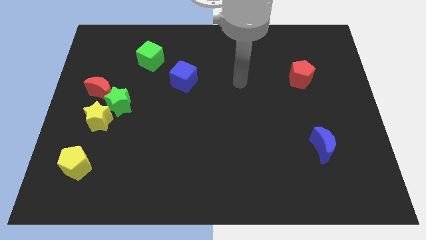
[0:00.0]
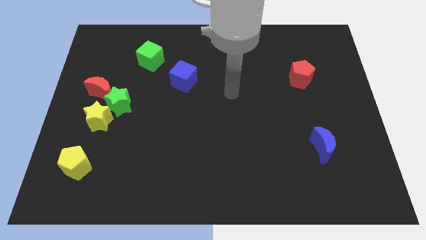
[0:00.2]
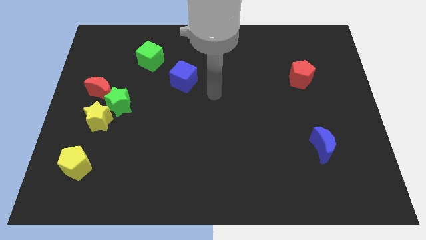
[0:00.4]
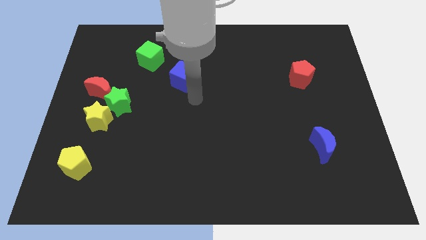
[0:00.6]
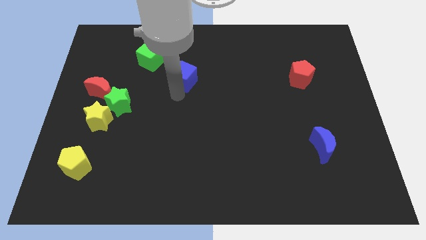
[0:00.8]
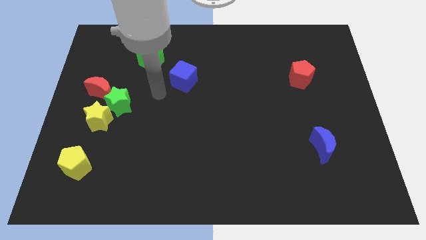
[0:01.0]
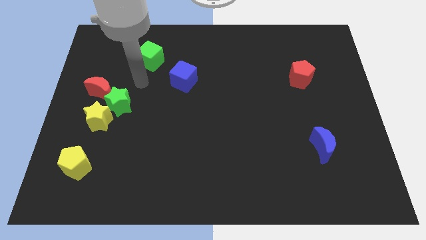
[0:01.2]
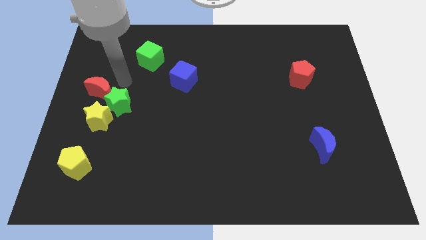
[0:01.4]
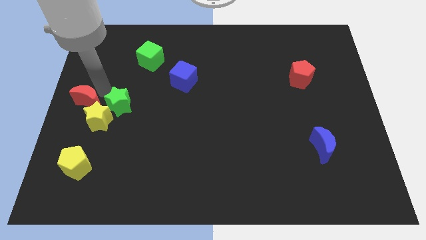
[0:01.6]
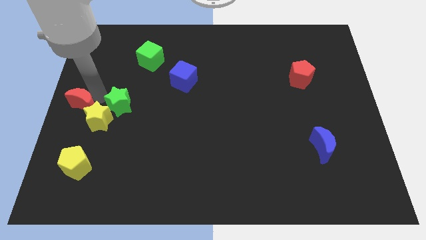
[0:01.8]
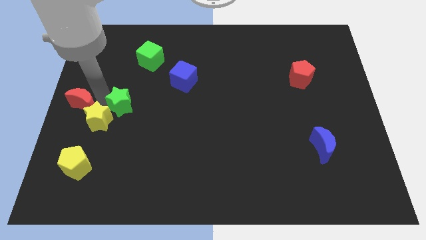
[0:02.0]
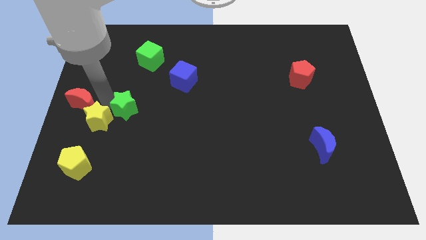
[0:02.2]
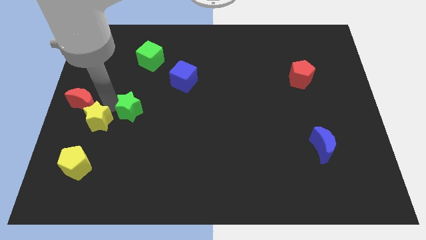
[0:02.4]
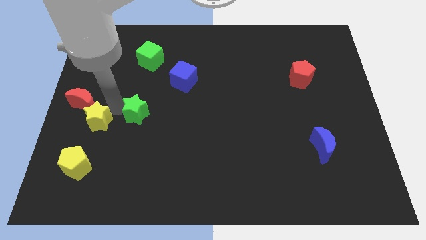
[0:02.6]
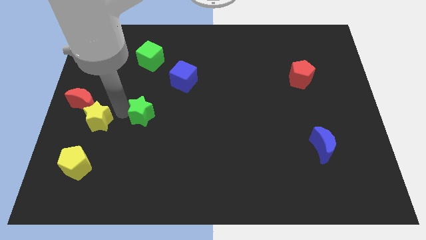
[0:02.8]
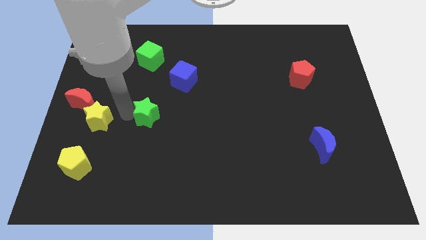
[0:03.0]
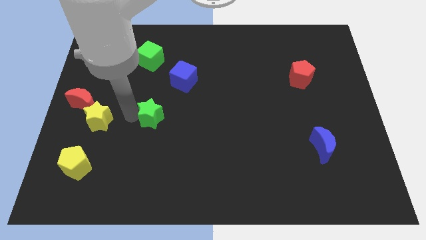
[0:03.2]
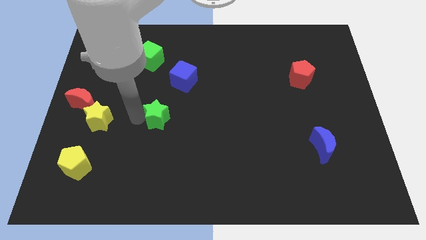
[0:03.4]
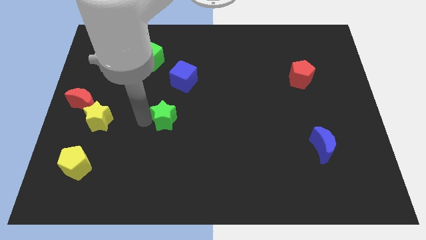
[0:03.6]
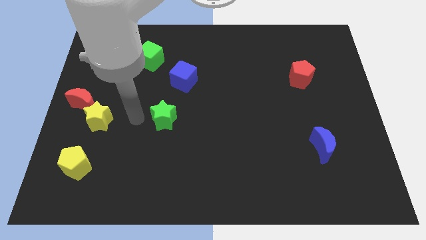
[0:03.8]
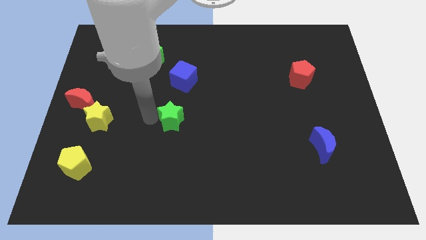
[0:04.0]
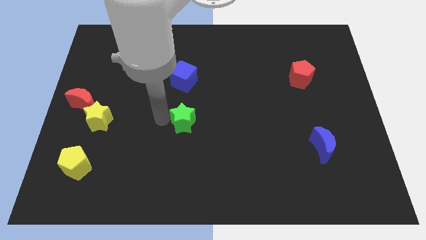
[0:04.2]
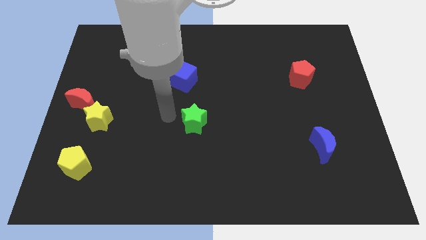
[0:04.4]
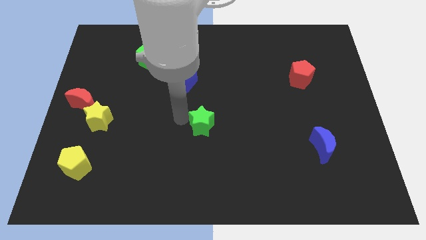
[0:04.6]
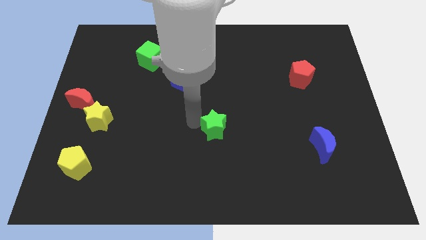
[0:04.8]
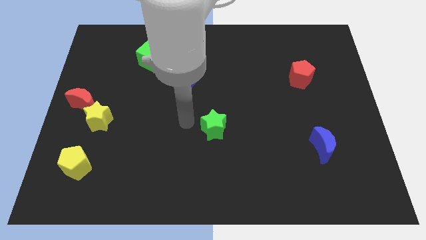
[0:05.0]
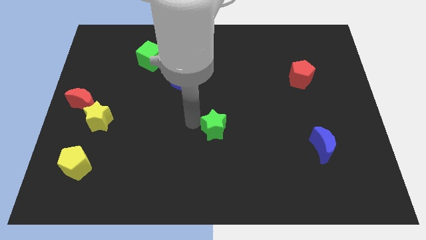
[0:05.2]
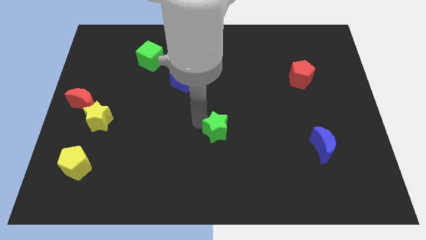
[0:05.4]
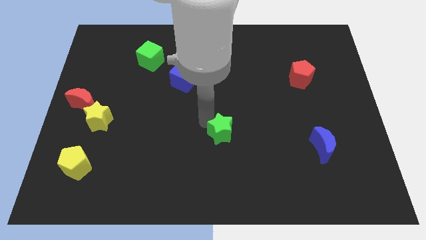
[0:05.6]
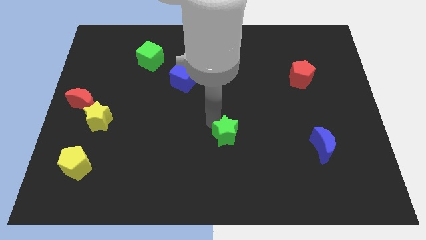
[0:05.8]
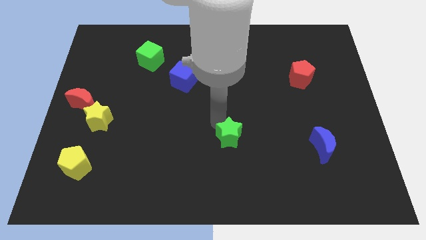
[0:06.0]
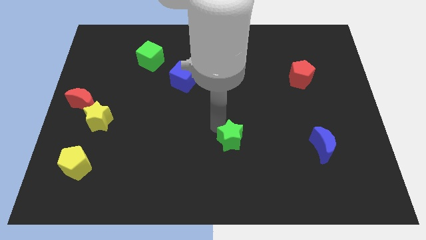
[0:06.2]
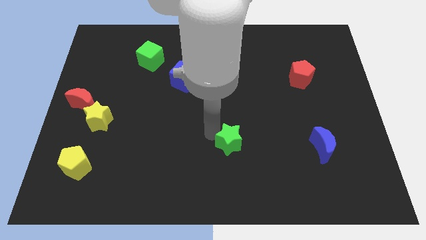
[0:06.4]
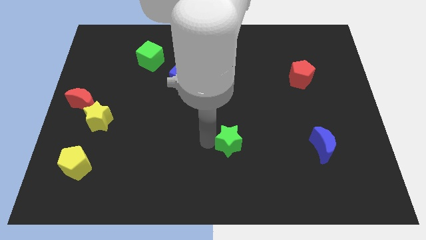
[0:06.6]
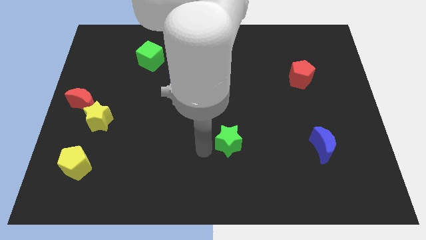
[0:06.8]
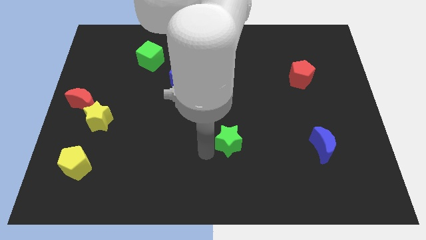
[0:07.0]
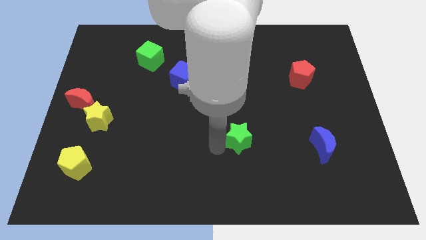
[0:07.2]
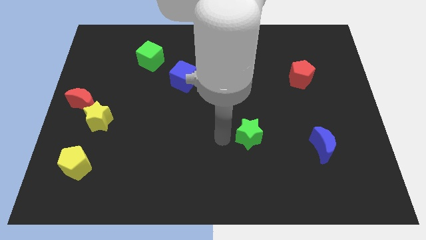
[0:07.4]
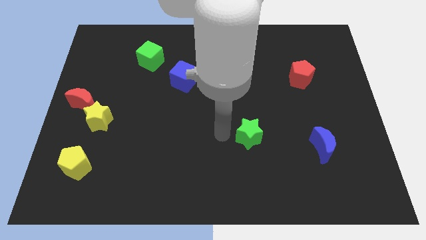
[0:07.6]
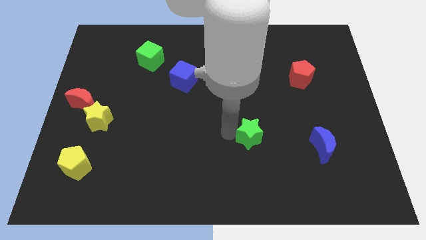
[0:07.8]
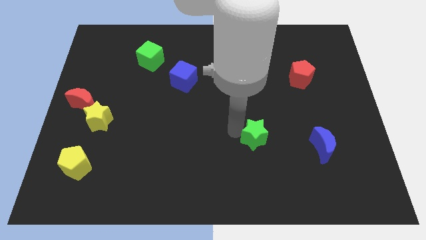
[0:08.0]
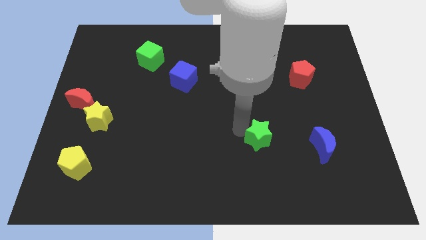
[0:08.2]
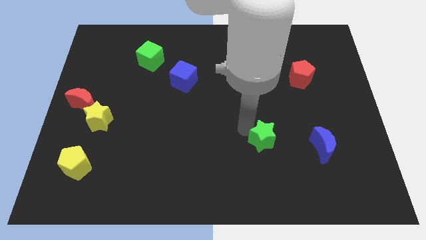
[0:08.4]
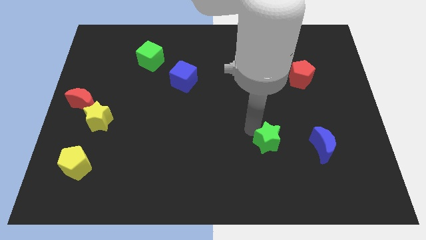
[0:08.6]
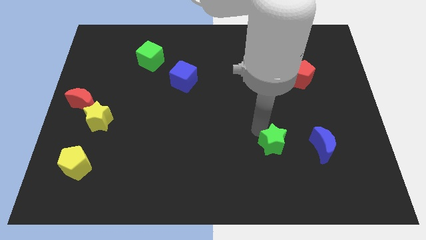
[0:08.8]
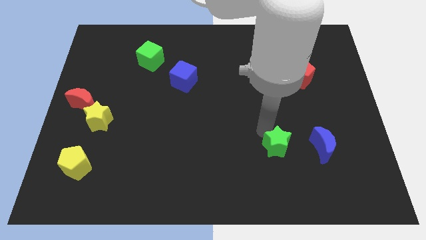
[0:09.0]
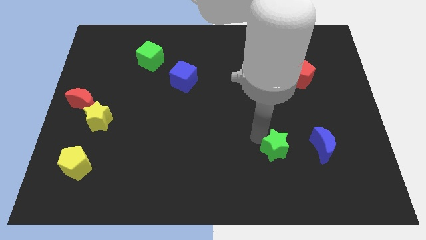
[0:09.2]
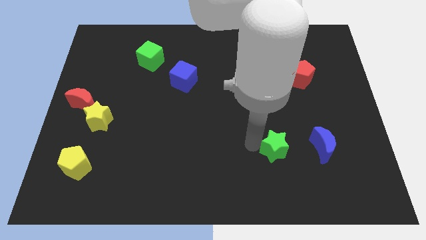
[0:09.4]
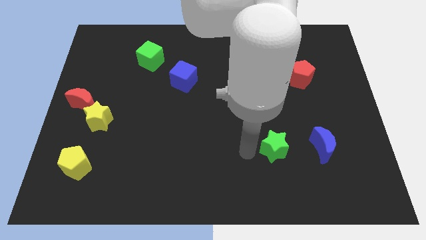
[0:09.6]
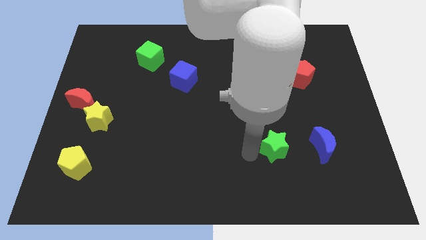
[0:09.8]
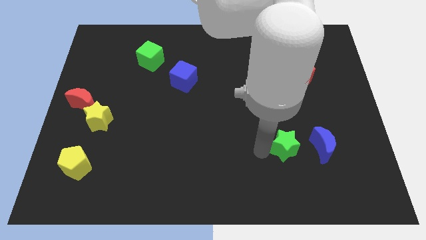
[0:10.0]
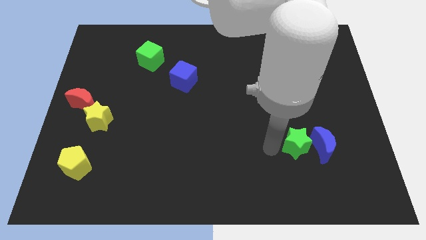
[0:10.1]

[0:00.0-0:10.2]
slide the green star to the blue moon

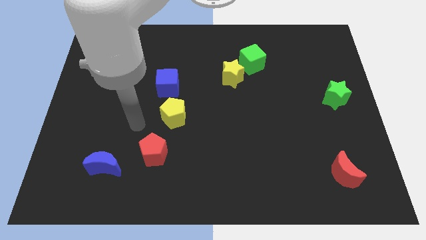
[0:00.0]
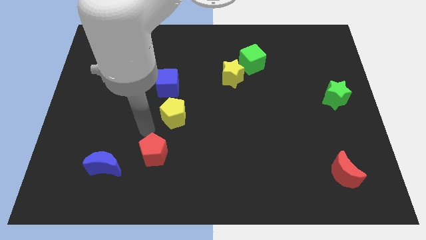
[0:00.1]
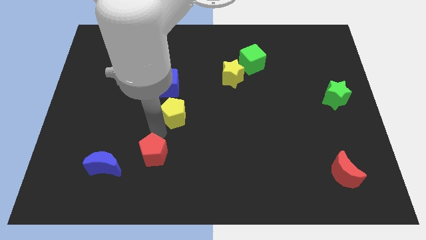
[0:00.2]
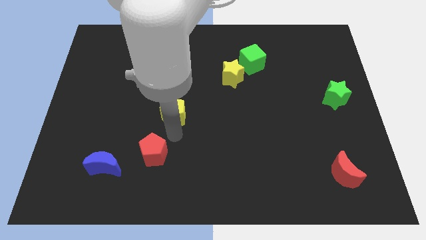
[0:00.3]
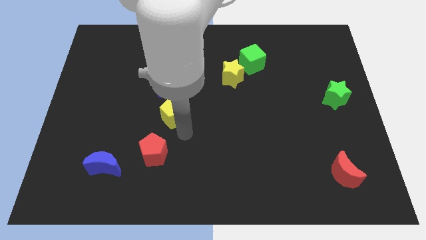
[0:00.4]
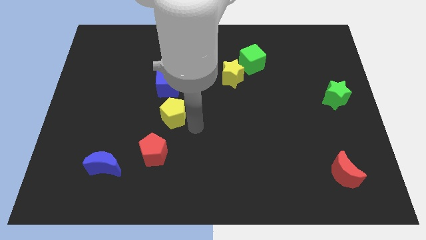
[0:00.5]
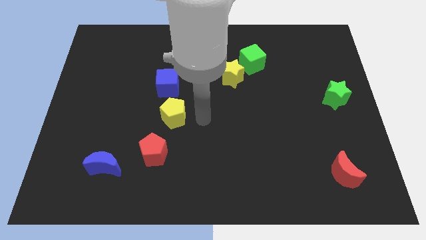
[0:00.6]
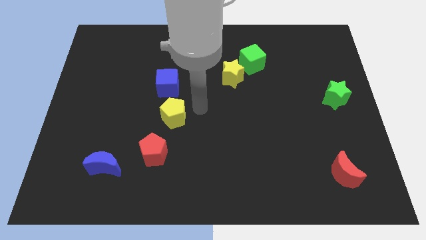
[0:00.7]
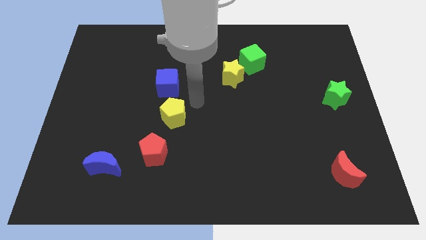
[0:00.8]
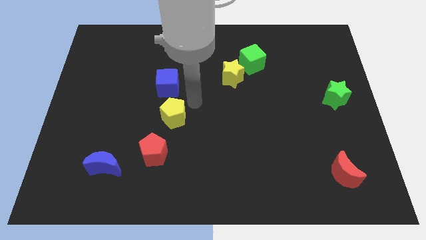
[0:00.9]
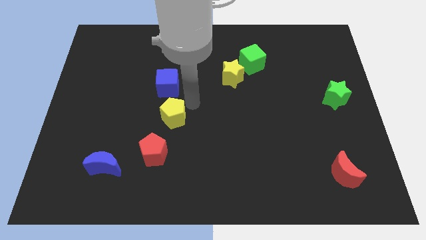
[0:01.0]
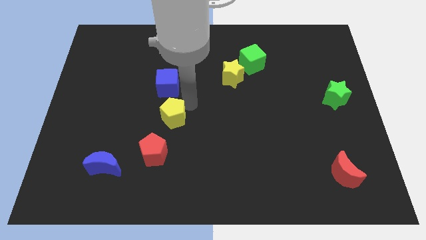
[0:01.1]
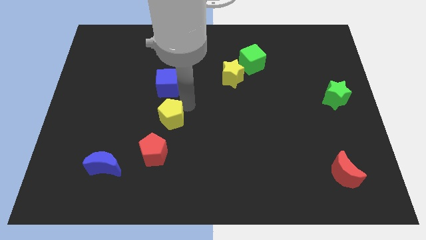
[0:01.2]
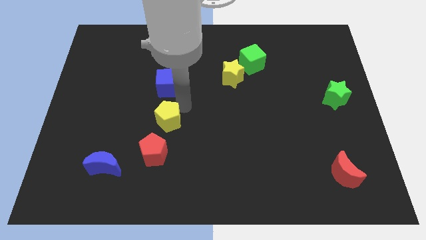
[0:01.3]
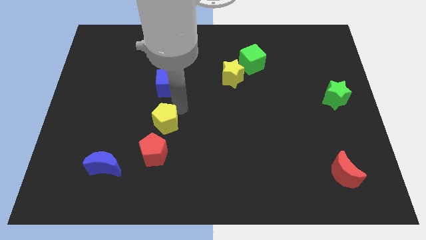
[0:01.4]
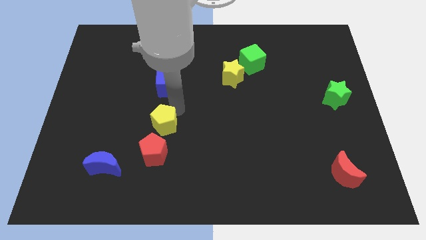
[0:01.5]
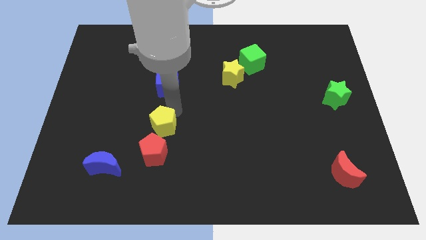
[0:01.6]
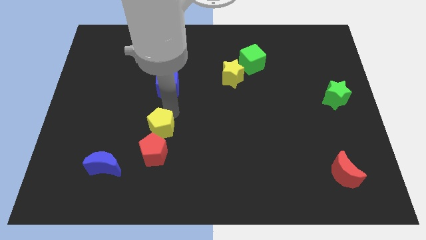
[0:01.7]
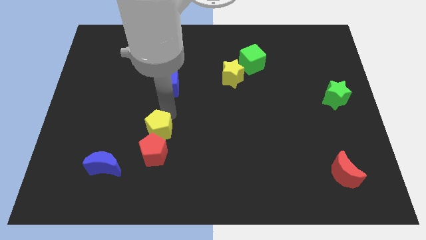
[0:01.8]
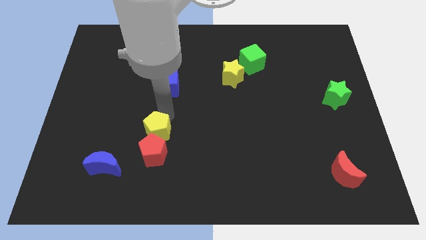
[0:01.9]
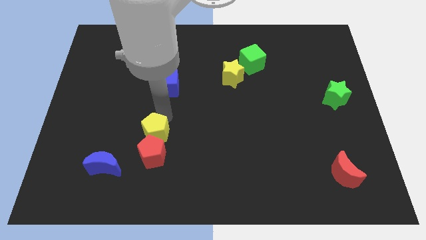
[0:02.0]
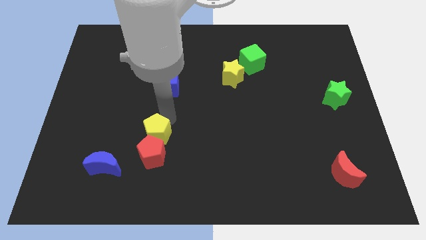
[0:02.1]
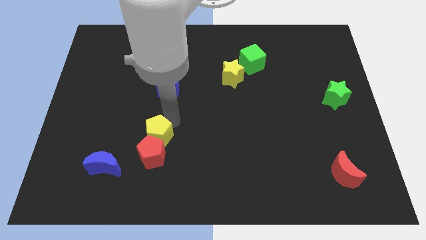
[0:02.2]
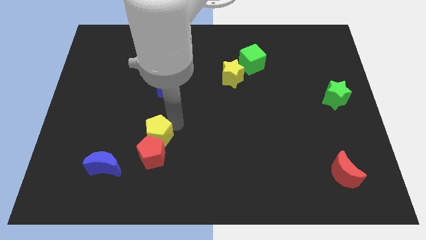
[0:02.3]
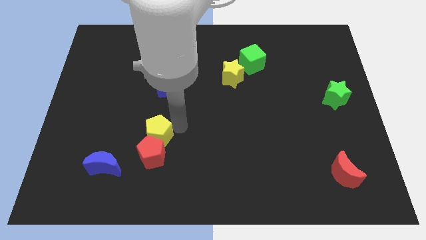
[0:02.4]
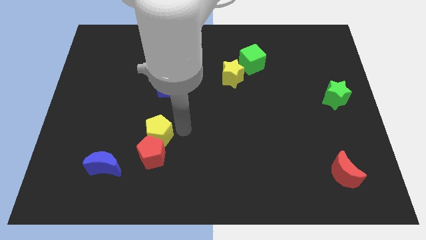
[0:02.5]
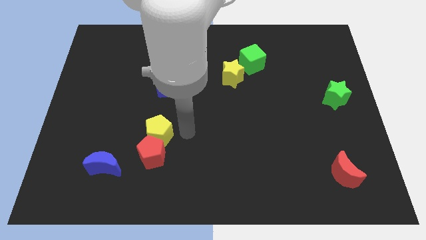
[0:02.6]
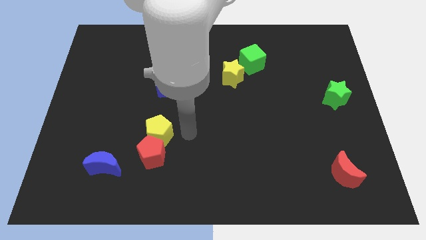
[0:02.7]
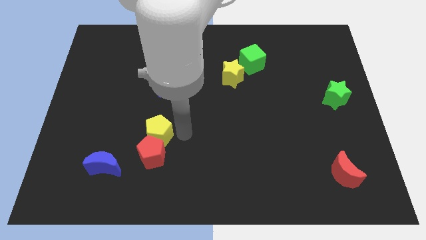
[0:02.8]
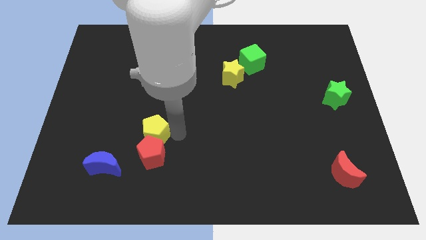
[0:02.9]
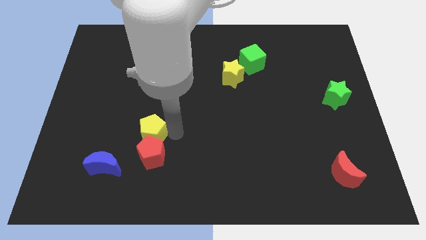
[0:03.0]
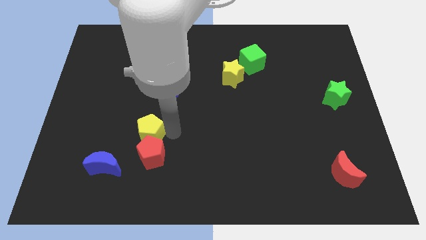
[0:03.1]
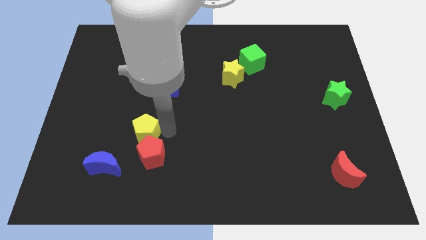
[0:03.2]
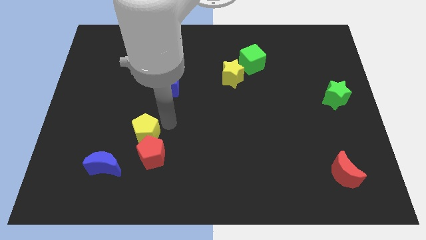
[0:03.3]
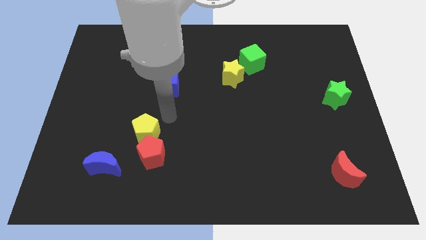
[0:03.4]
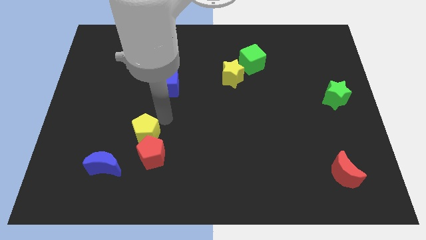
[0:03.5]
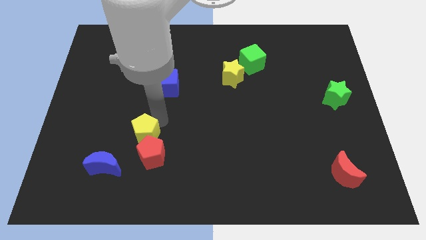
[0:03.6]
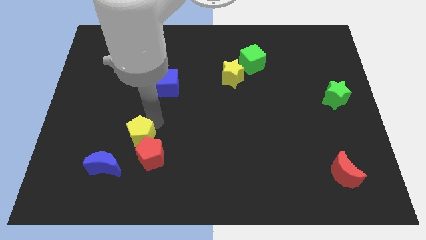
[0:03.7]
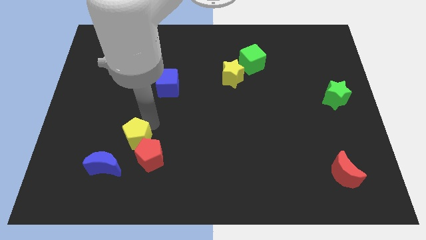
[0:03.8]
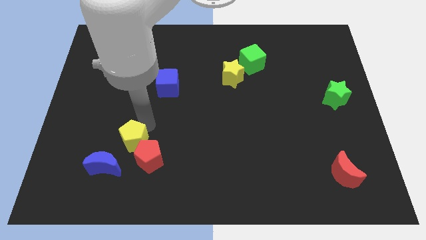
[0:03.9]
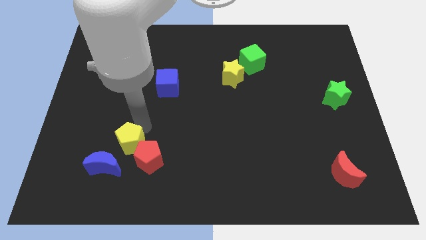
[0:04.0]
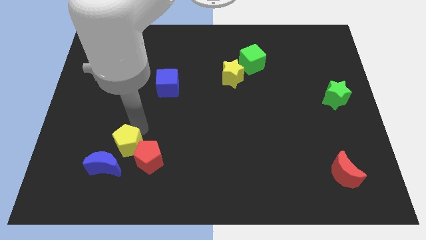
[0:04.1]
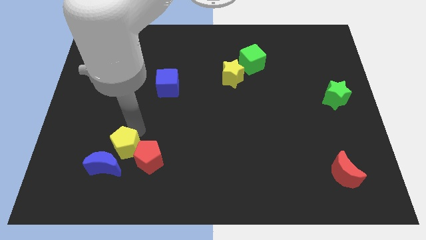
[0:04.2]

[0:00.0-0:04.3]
move the yellow pentagon to the blue moon
